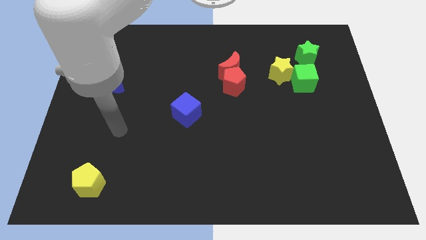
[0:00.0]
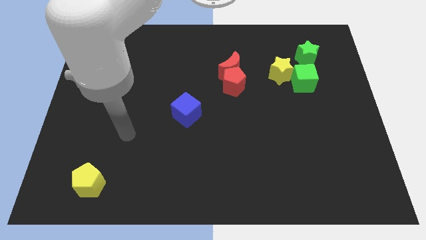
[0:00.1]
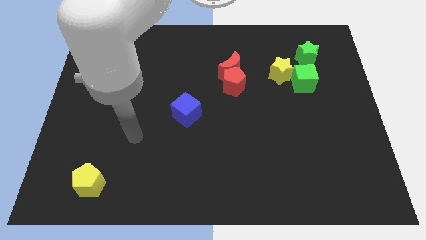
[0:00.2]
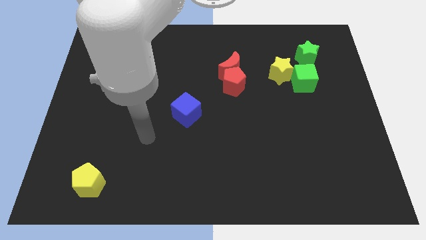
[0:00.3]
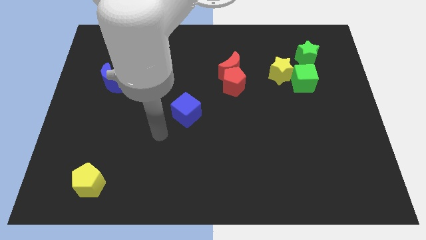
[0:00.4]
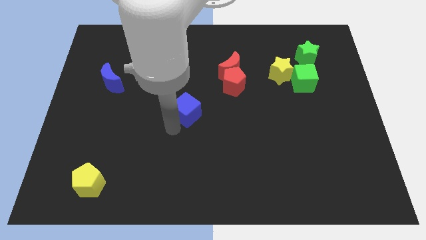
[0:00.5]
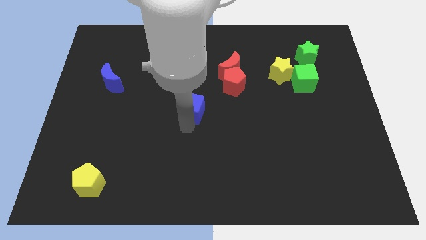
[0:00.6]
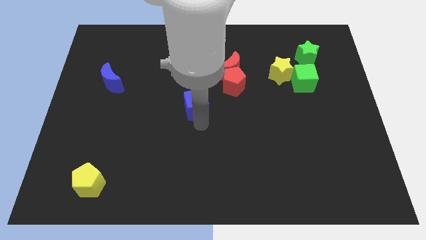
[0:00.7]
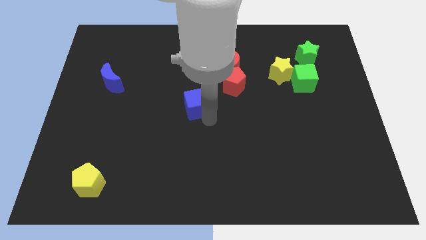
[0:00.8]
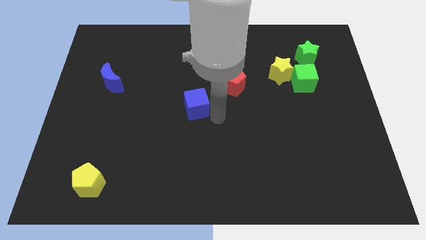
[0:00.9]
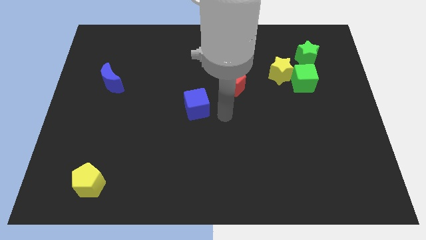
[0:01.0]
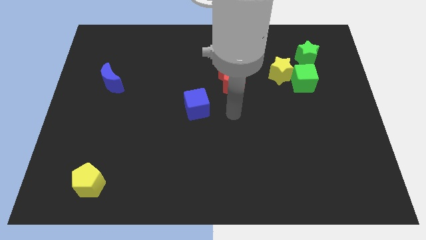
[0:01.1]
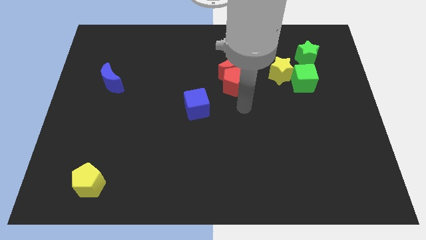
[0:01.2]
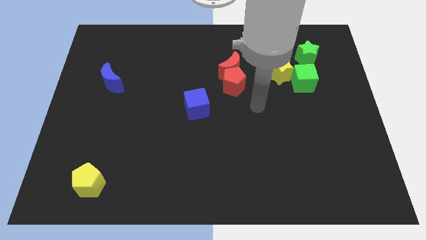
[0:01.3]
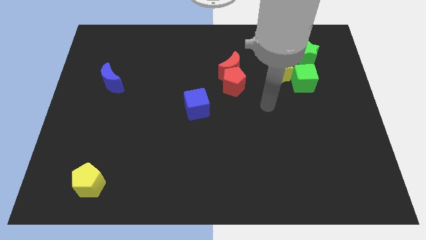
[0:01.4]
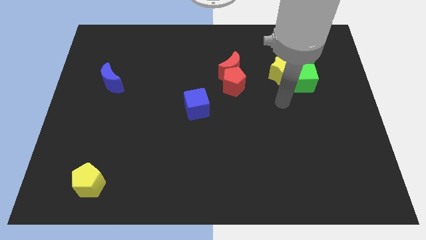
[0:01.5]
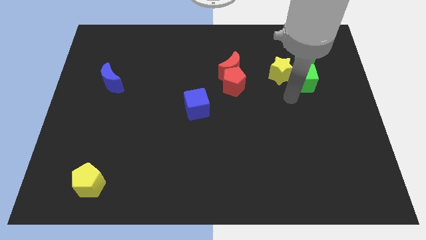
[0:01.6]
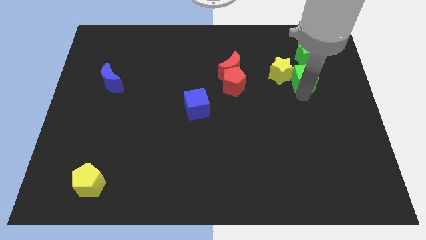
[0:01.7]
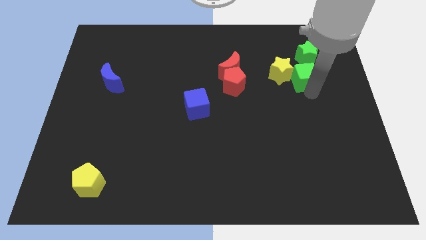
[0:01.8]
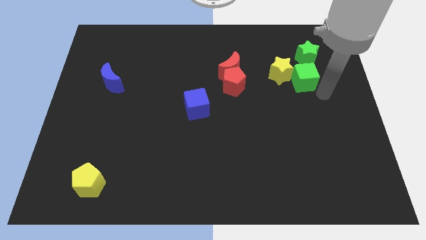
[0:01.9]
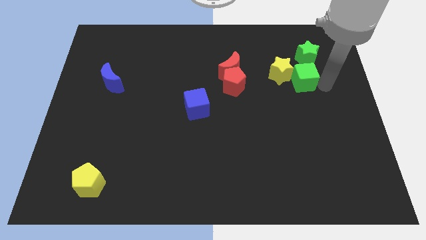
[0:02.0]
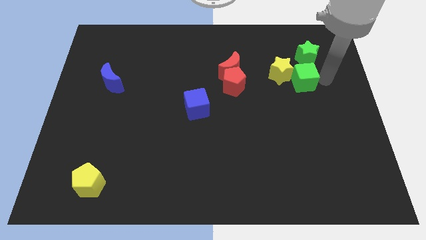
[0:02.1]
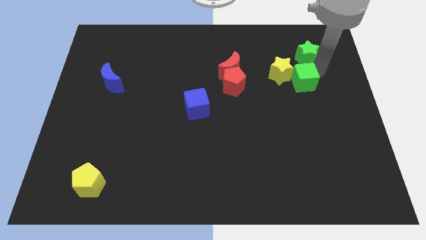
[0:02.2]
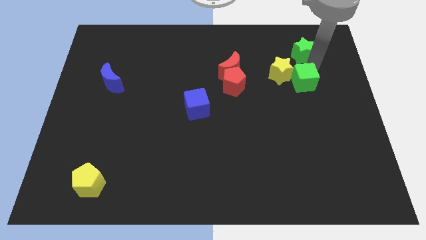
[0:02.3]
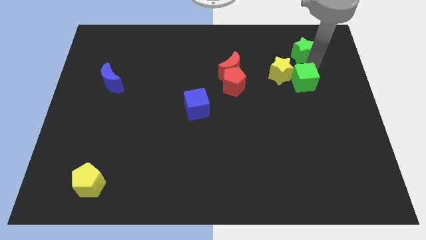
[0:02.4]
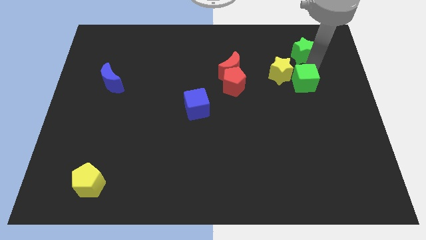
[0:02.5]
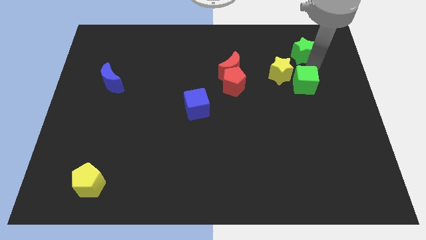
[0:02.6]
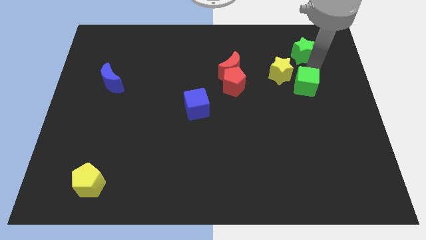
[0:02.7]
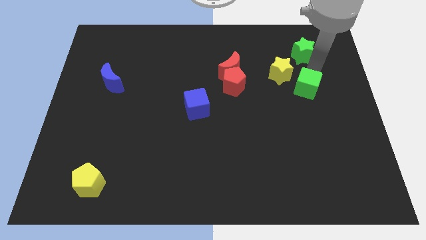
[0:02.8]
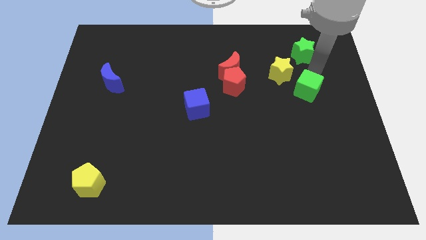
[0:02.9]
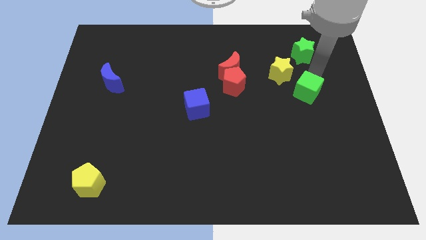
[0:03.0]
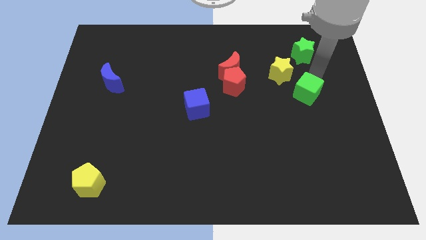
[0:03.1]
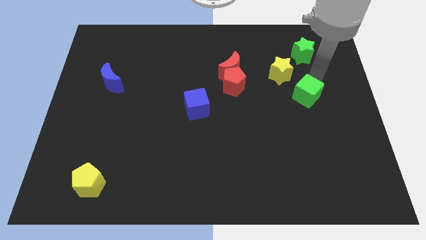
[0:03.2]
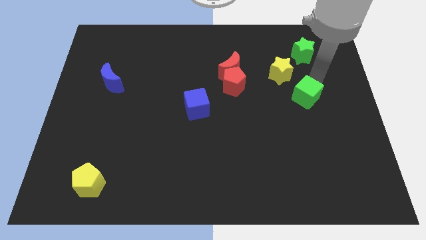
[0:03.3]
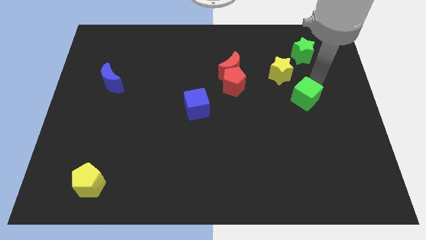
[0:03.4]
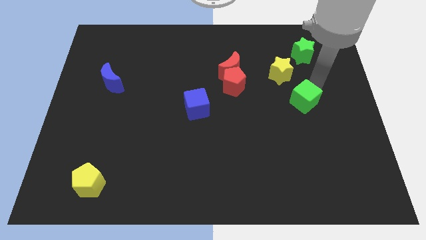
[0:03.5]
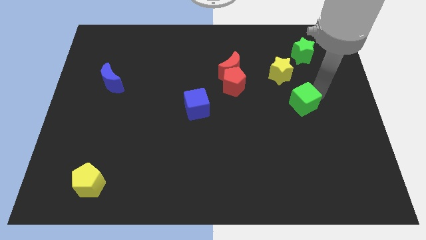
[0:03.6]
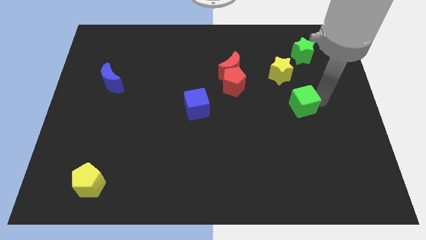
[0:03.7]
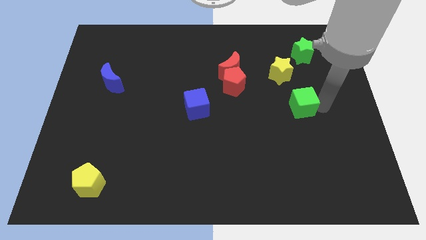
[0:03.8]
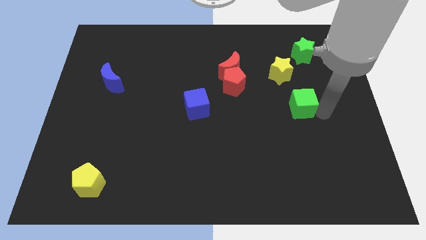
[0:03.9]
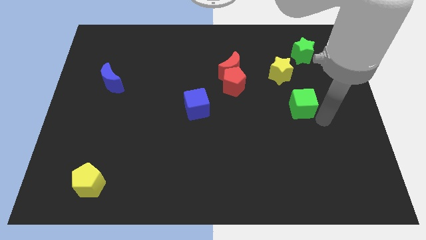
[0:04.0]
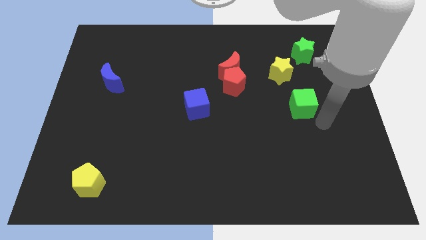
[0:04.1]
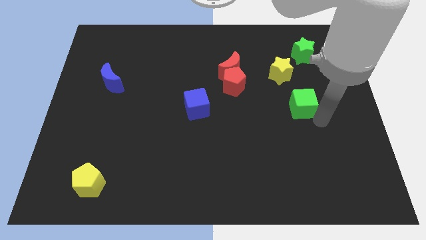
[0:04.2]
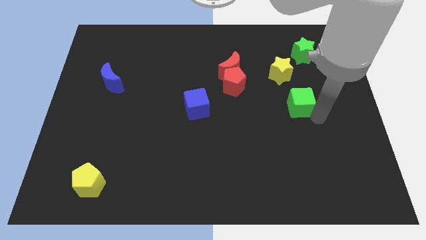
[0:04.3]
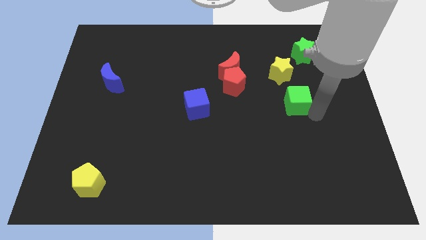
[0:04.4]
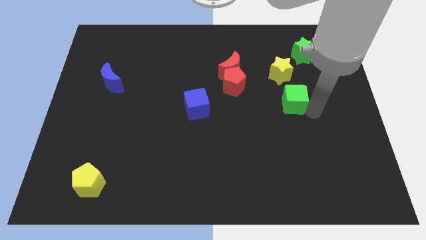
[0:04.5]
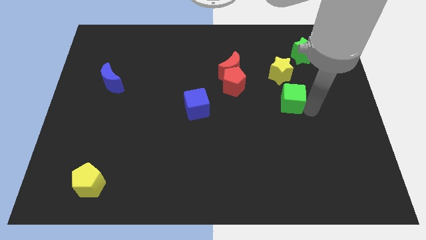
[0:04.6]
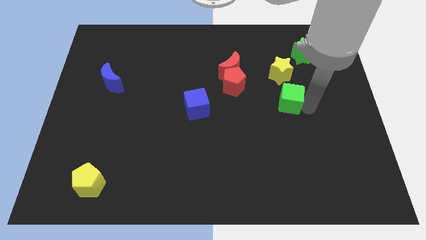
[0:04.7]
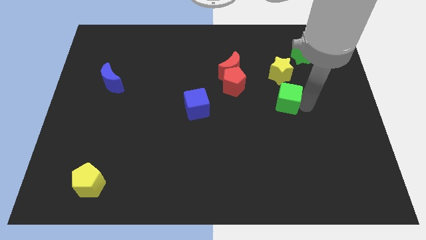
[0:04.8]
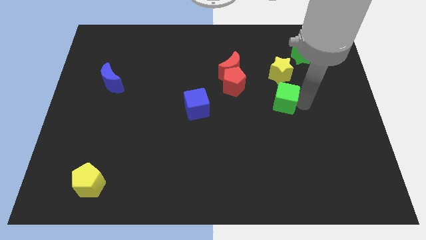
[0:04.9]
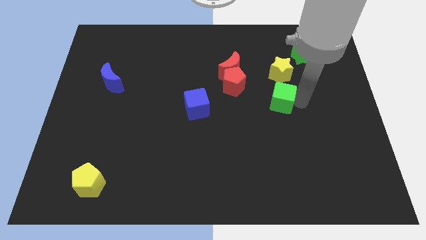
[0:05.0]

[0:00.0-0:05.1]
put the green cube just right of the red pentagon

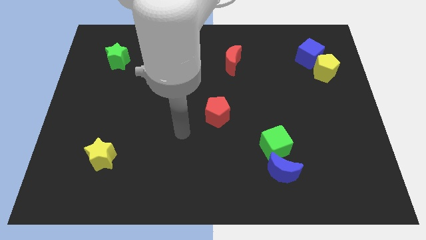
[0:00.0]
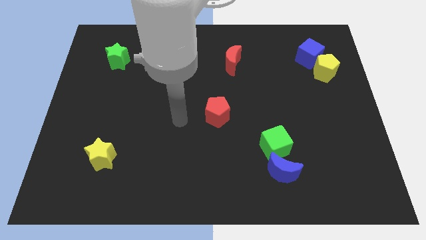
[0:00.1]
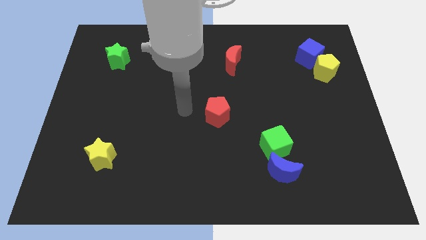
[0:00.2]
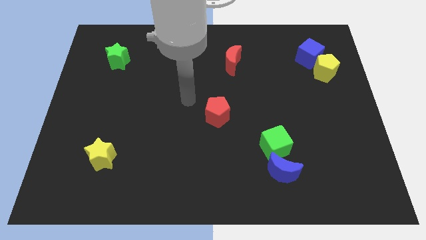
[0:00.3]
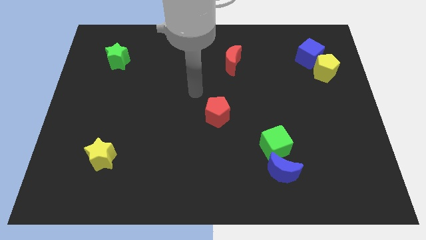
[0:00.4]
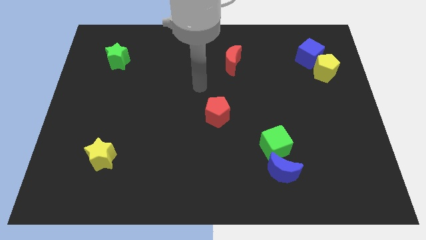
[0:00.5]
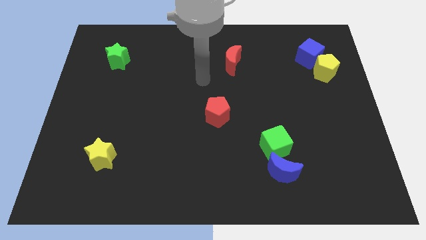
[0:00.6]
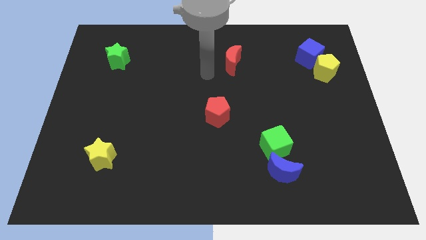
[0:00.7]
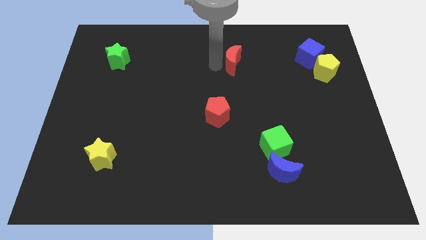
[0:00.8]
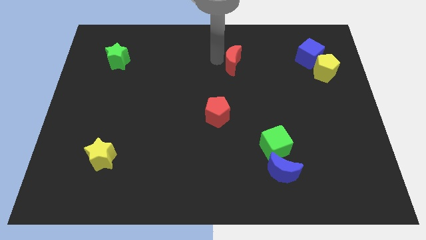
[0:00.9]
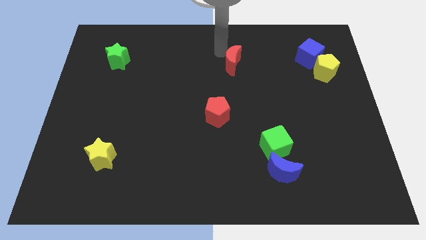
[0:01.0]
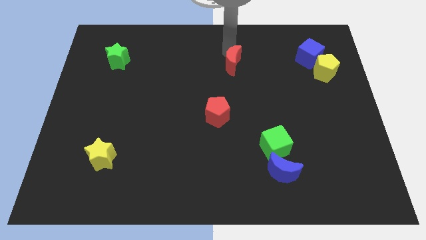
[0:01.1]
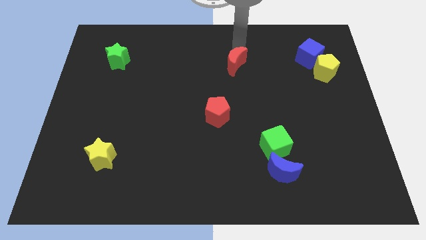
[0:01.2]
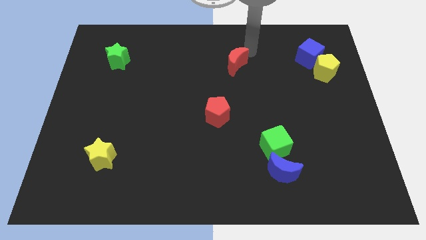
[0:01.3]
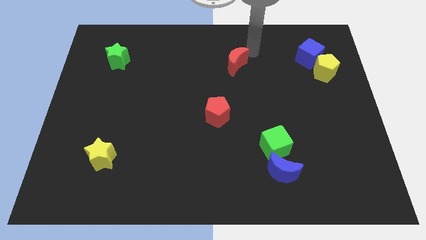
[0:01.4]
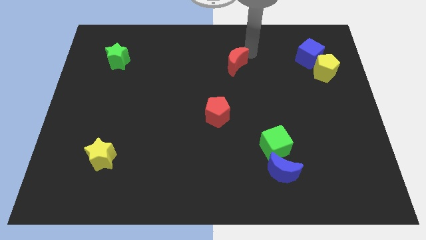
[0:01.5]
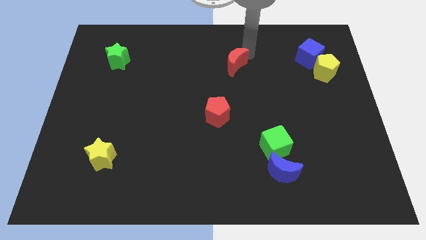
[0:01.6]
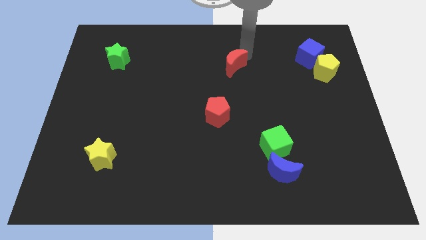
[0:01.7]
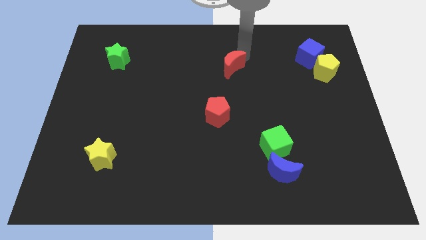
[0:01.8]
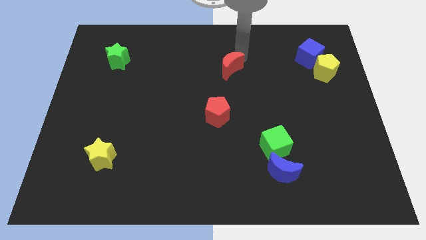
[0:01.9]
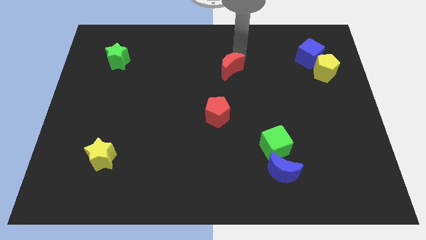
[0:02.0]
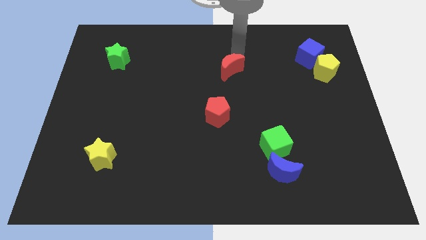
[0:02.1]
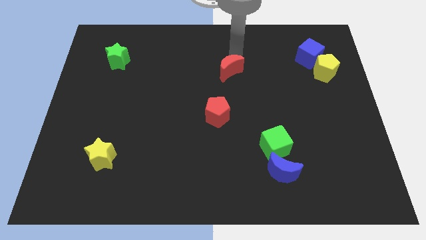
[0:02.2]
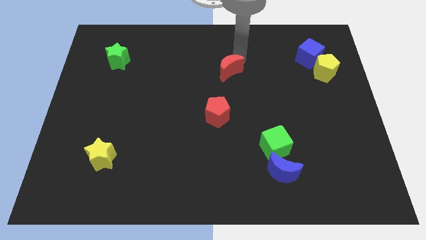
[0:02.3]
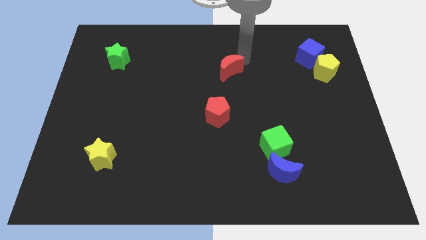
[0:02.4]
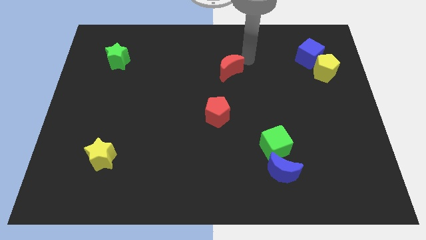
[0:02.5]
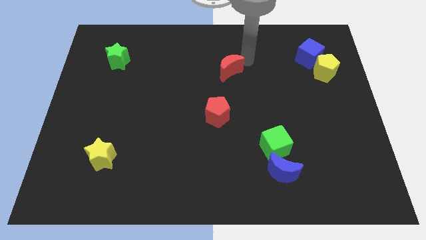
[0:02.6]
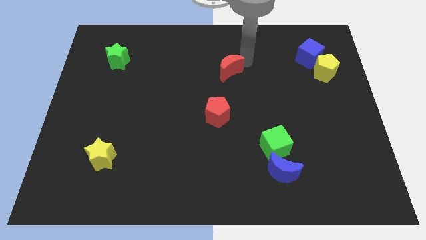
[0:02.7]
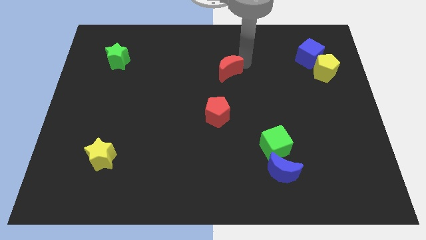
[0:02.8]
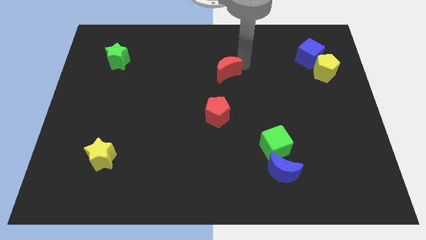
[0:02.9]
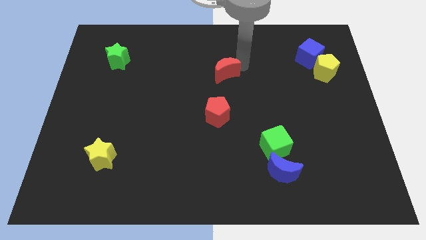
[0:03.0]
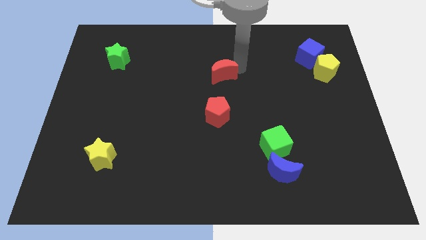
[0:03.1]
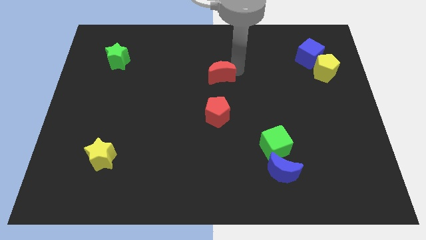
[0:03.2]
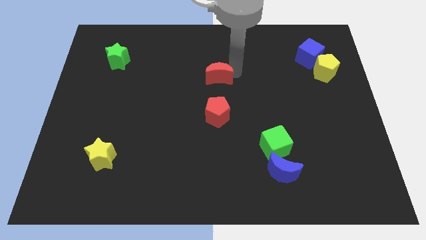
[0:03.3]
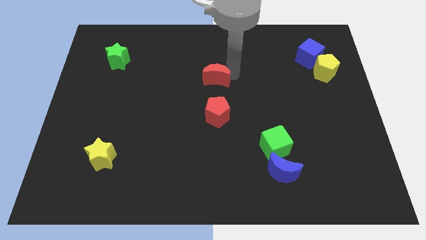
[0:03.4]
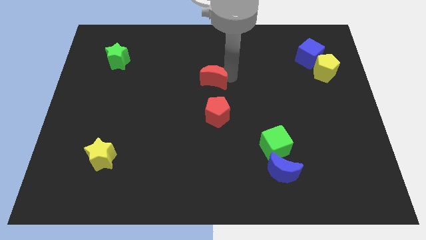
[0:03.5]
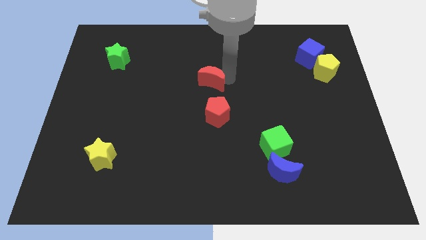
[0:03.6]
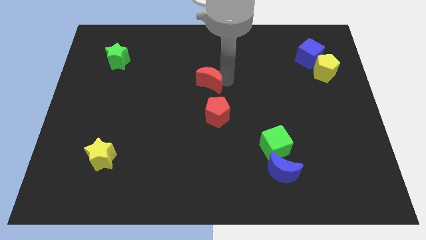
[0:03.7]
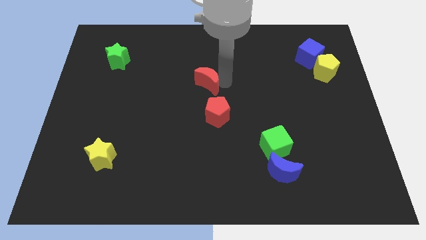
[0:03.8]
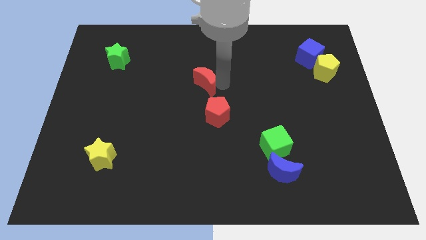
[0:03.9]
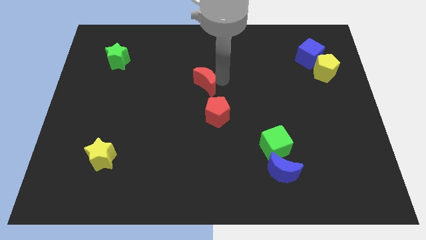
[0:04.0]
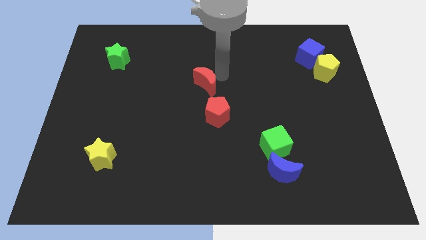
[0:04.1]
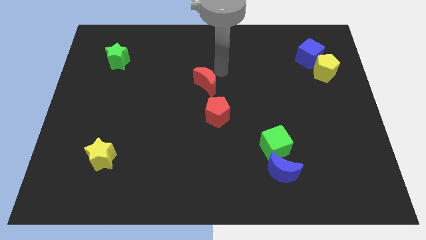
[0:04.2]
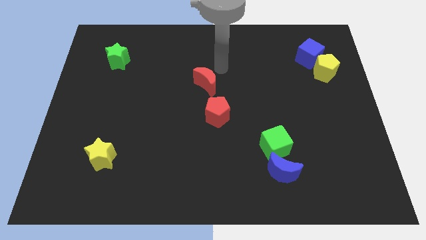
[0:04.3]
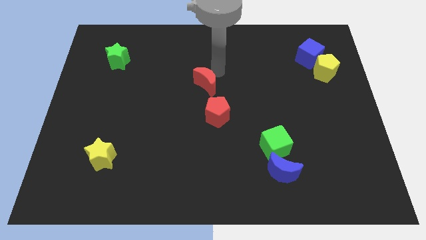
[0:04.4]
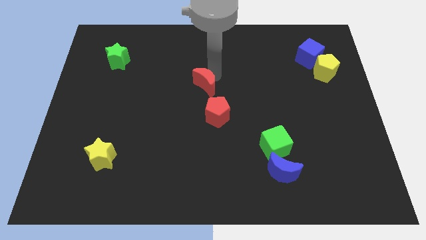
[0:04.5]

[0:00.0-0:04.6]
push the red moon to the top left side of the red pentagon
